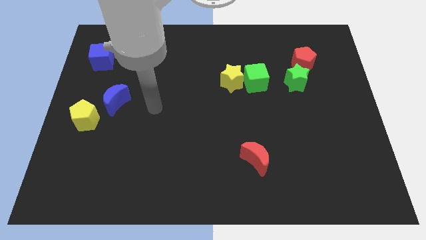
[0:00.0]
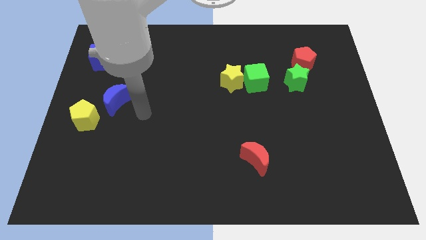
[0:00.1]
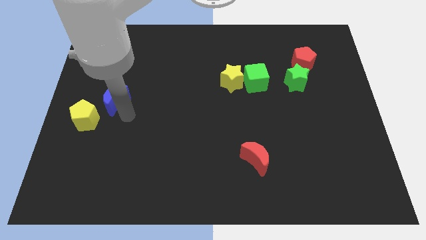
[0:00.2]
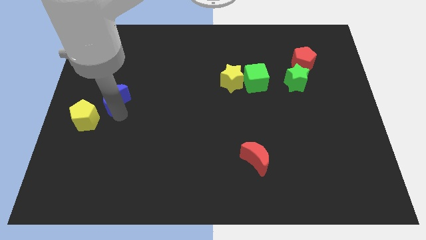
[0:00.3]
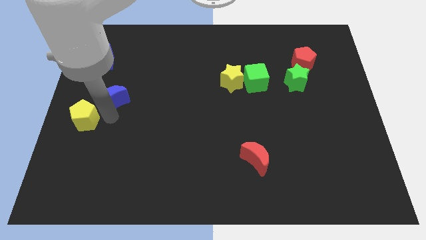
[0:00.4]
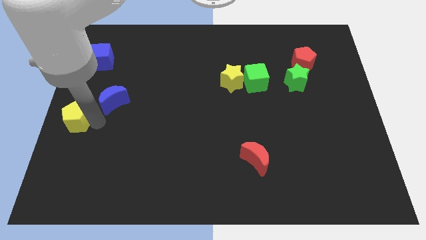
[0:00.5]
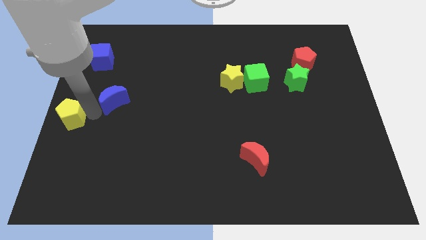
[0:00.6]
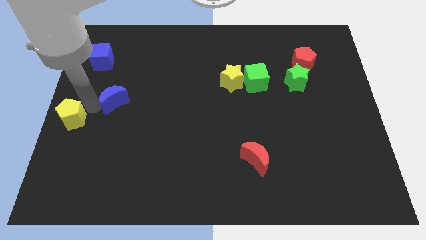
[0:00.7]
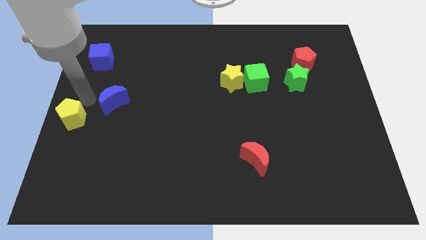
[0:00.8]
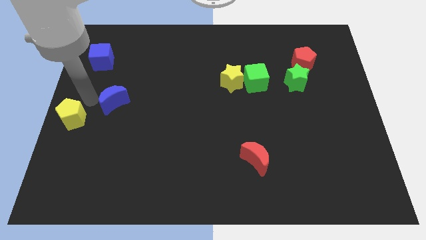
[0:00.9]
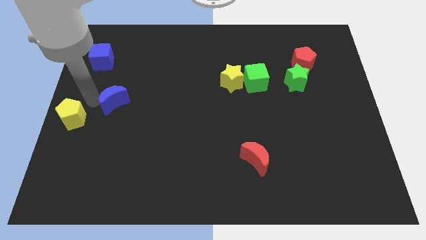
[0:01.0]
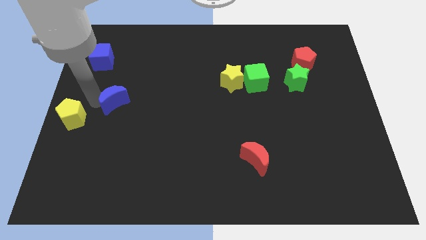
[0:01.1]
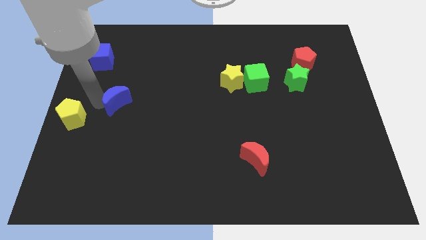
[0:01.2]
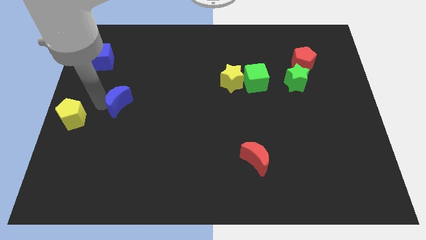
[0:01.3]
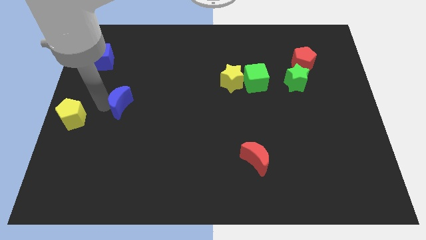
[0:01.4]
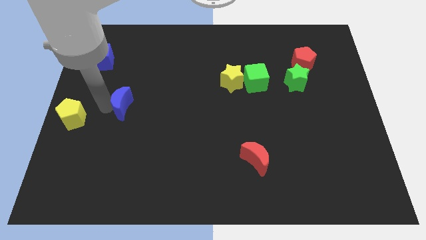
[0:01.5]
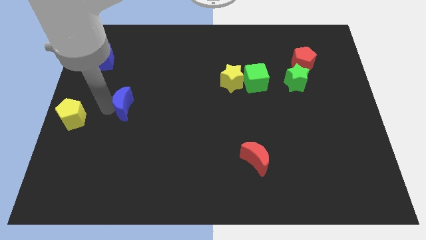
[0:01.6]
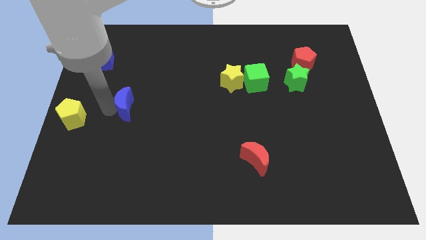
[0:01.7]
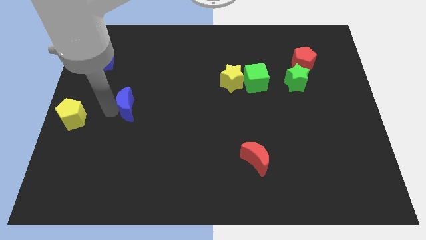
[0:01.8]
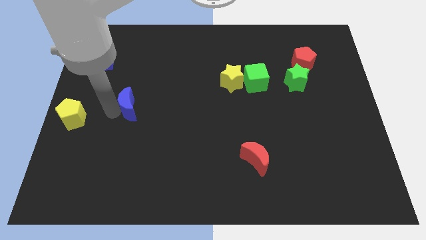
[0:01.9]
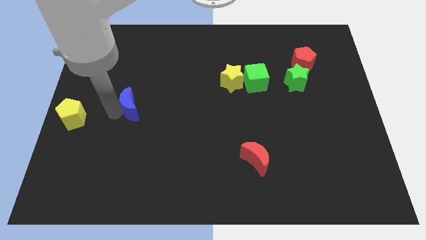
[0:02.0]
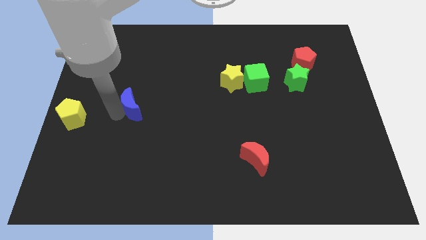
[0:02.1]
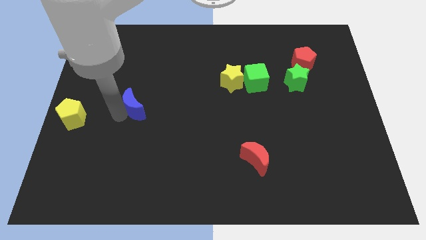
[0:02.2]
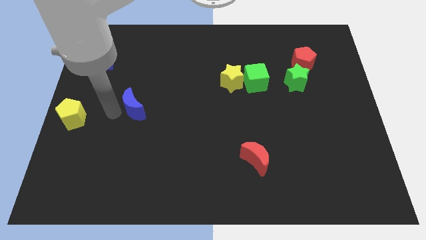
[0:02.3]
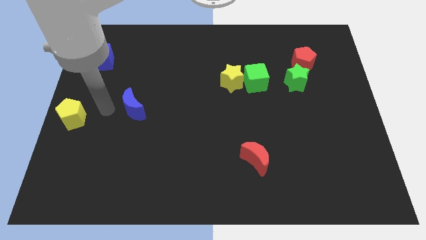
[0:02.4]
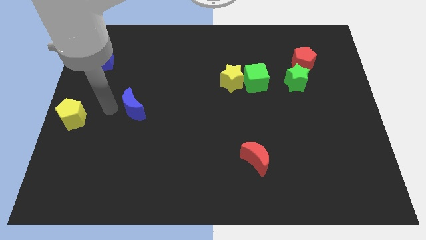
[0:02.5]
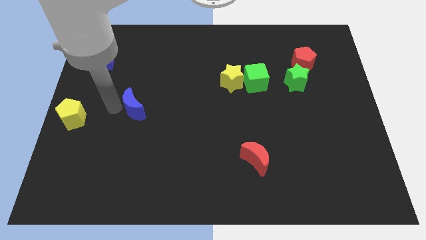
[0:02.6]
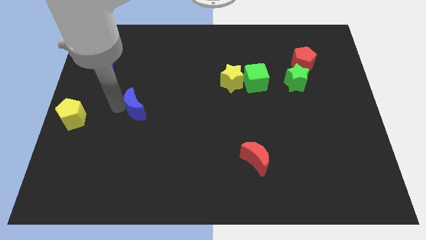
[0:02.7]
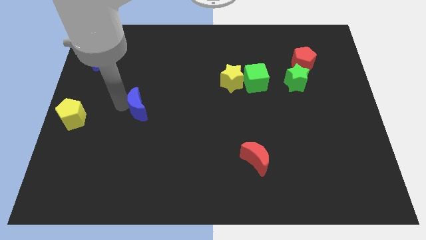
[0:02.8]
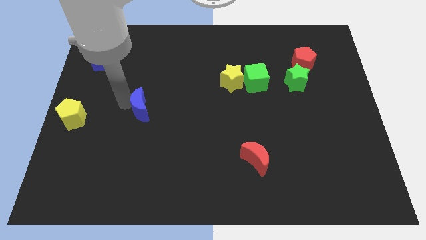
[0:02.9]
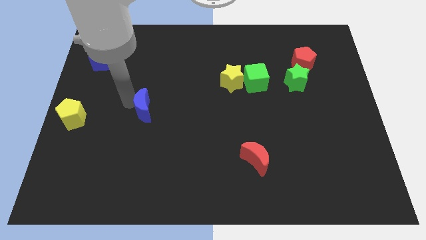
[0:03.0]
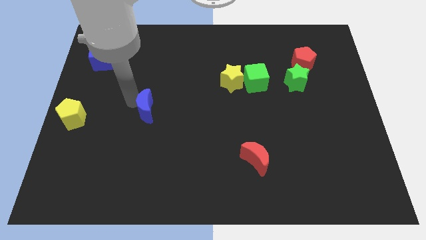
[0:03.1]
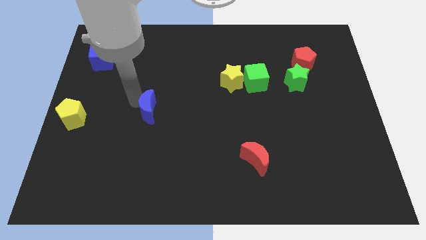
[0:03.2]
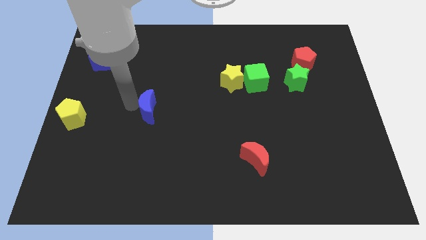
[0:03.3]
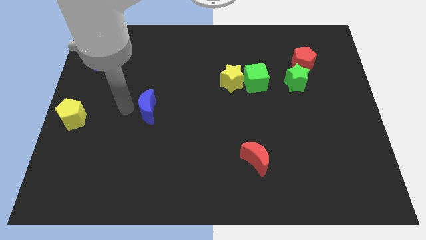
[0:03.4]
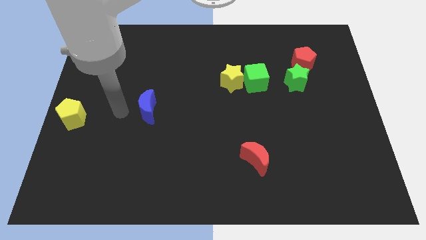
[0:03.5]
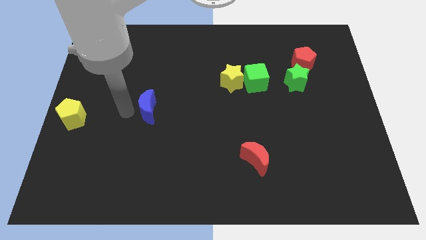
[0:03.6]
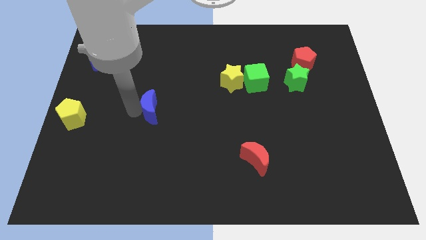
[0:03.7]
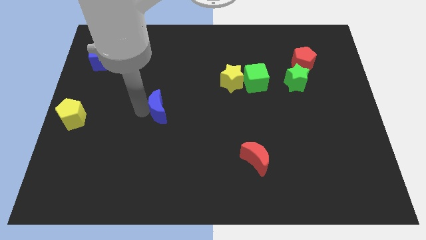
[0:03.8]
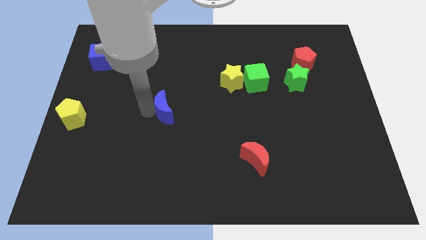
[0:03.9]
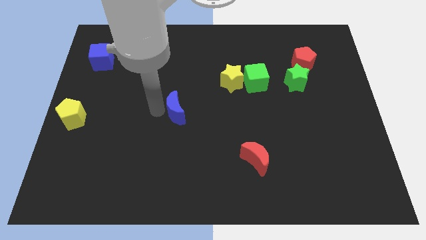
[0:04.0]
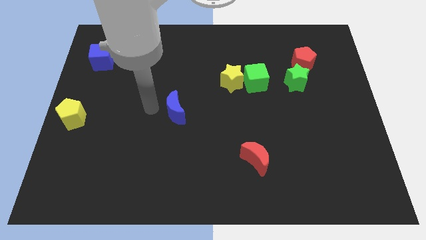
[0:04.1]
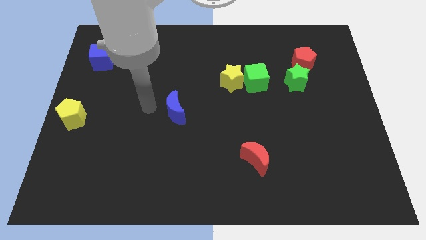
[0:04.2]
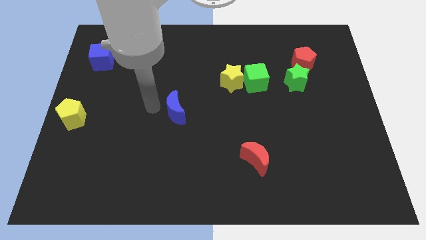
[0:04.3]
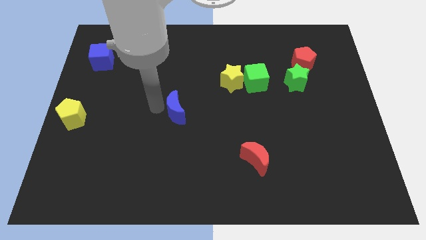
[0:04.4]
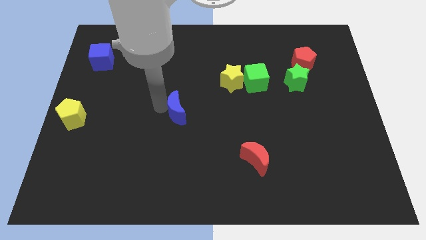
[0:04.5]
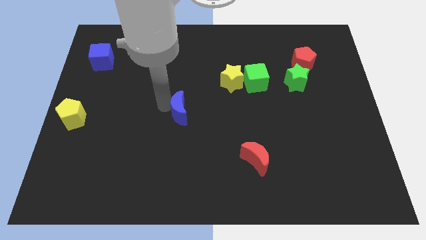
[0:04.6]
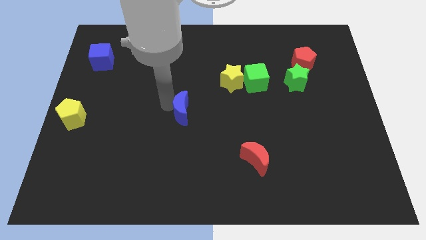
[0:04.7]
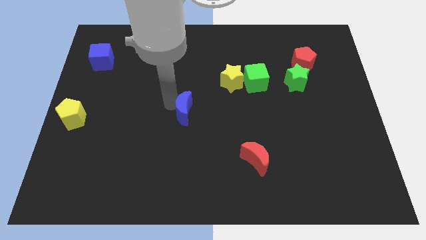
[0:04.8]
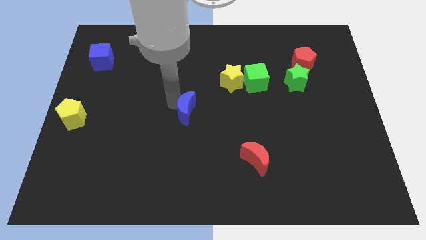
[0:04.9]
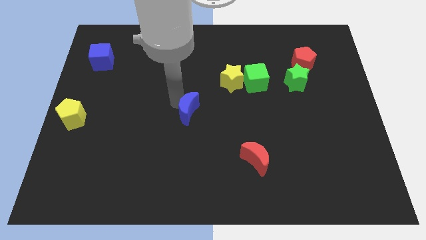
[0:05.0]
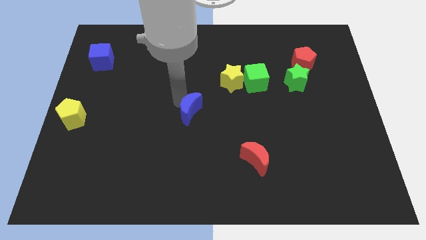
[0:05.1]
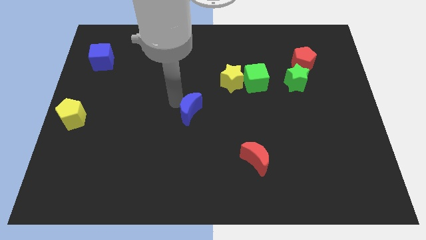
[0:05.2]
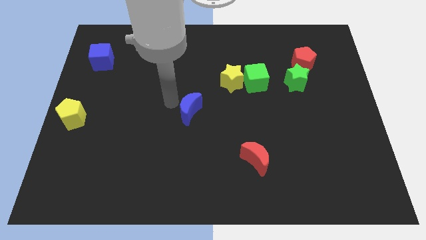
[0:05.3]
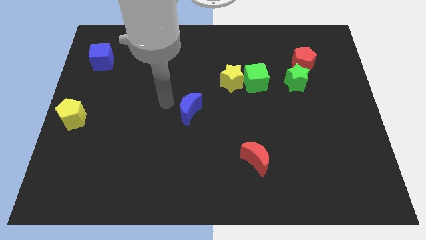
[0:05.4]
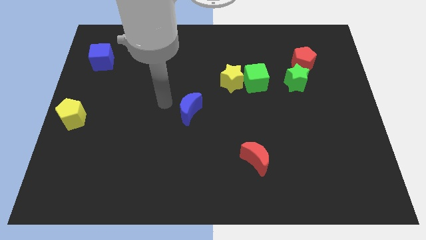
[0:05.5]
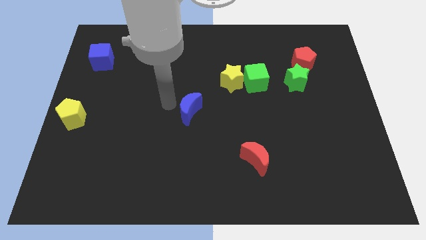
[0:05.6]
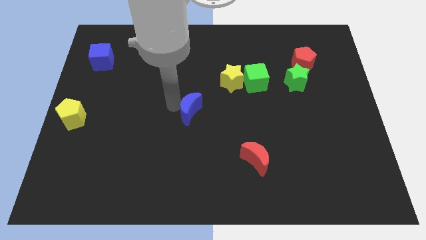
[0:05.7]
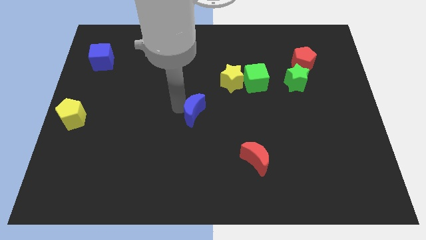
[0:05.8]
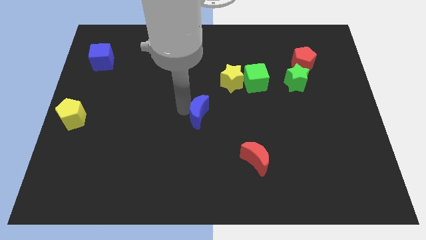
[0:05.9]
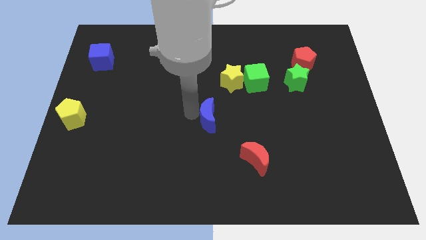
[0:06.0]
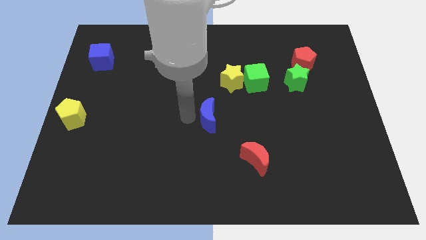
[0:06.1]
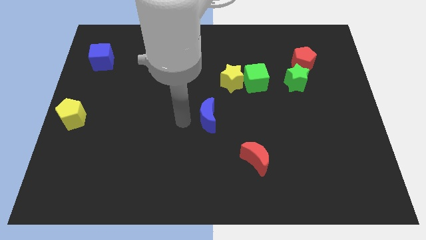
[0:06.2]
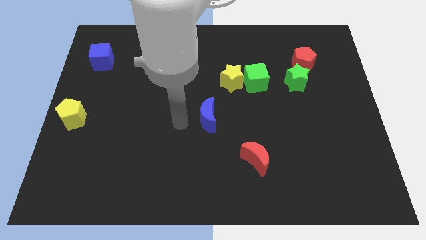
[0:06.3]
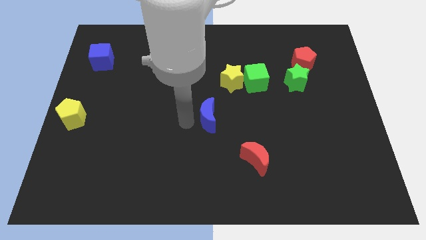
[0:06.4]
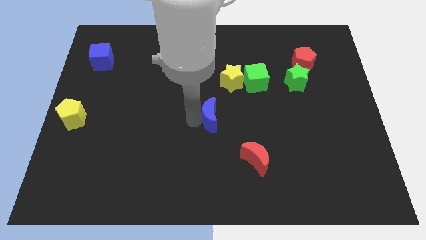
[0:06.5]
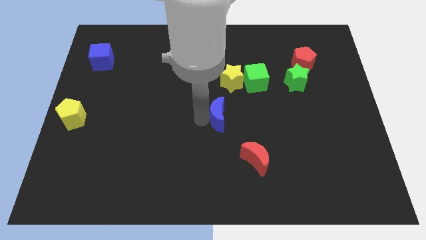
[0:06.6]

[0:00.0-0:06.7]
slide the blue moon to the bottom of the yellow star

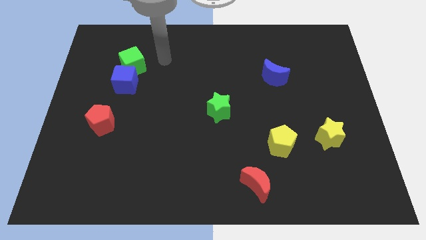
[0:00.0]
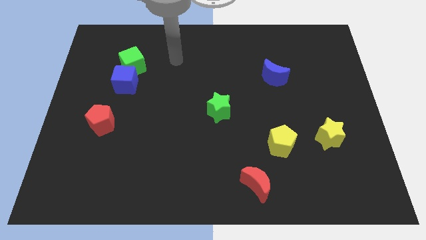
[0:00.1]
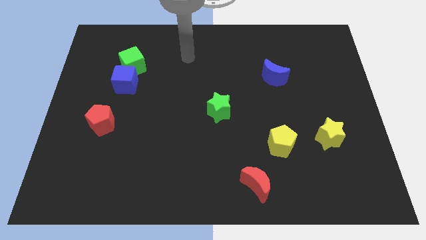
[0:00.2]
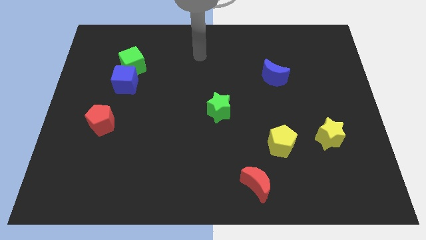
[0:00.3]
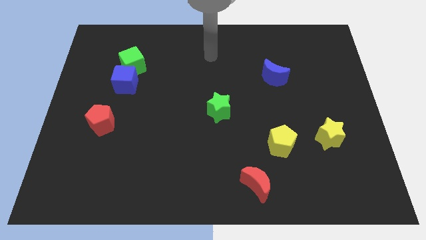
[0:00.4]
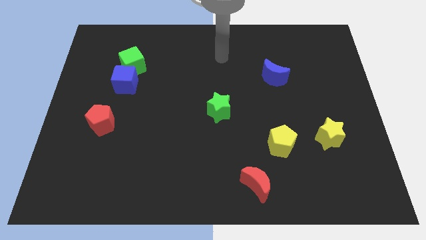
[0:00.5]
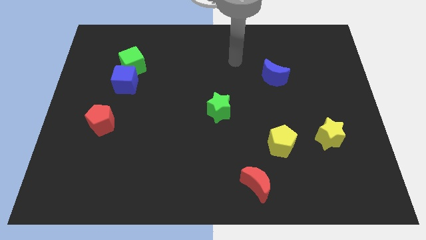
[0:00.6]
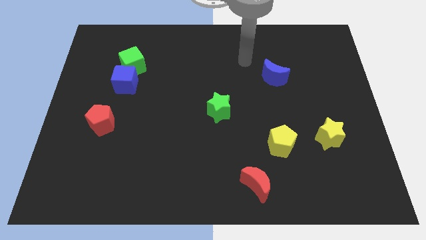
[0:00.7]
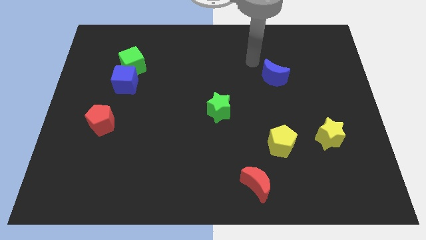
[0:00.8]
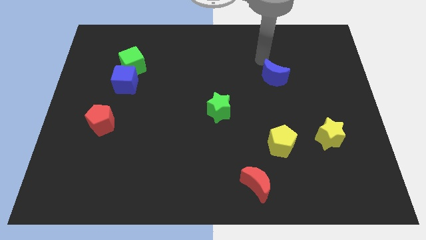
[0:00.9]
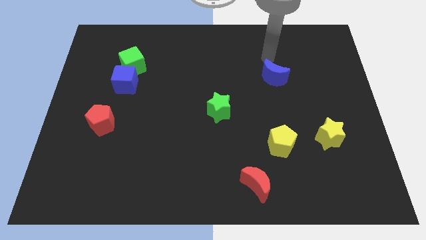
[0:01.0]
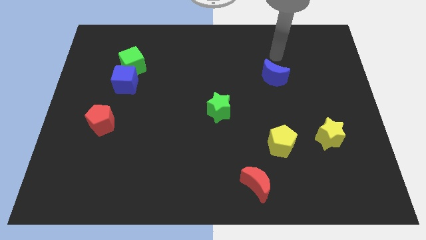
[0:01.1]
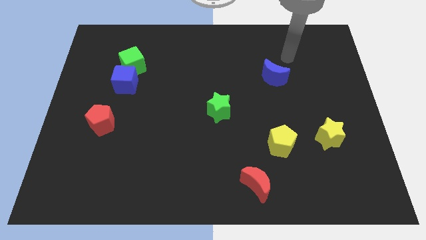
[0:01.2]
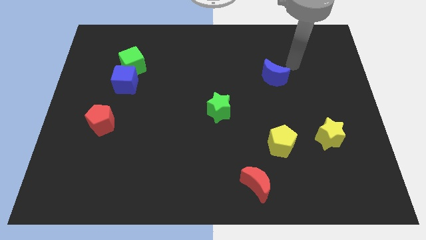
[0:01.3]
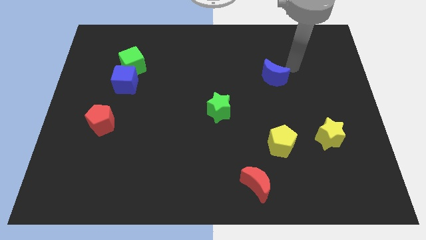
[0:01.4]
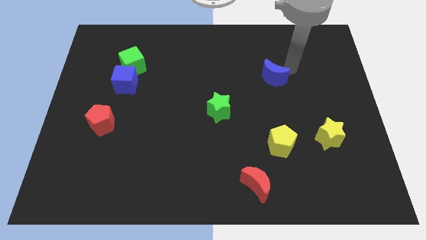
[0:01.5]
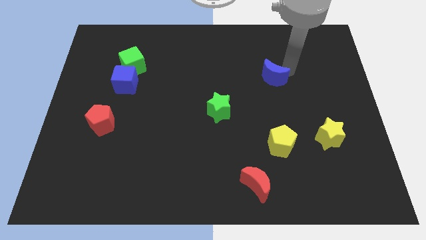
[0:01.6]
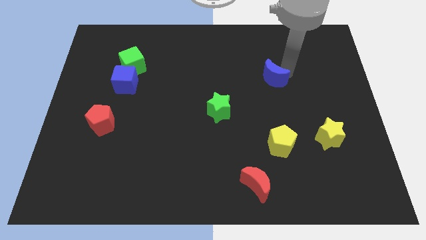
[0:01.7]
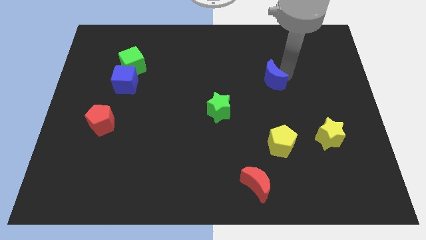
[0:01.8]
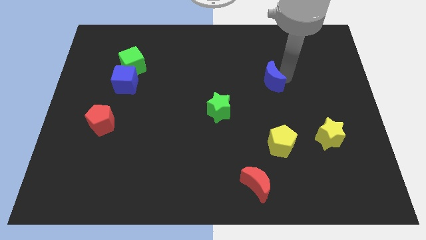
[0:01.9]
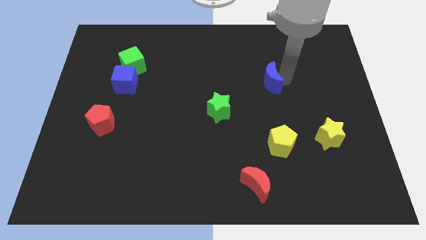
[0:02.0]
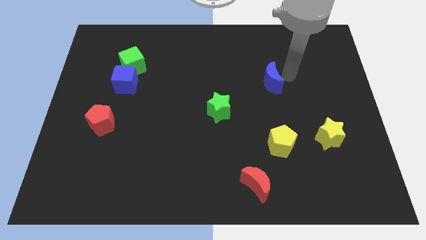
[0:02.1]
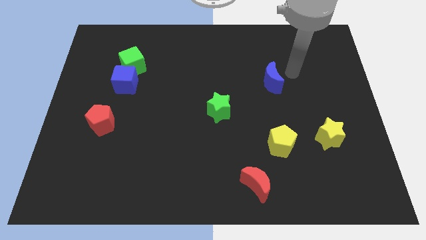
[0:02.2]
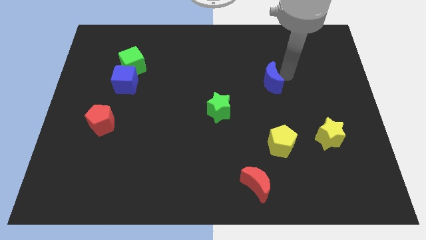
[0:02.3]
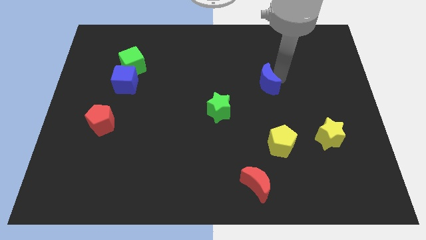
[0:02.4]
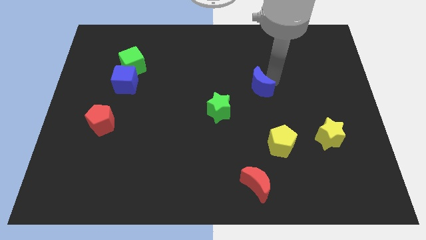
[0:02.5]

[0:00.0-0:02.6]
move the blue moon to the top right side of the green star
